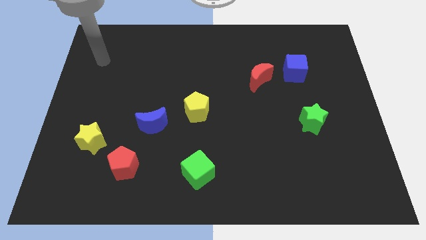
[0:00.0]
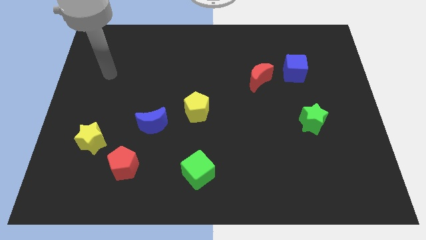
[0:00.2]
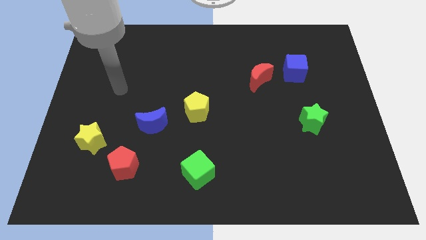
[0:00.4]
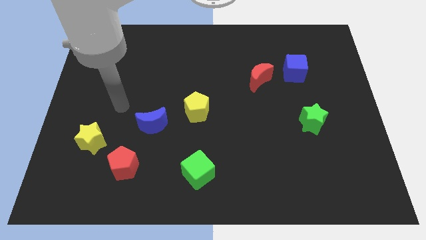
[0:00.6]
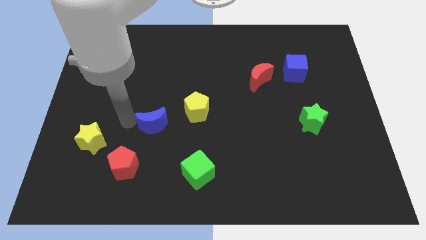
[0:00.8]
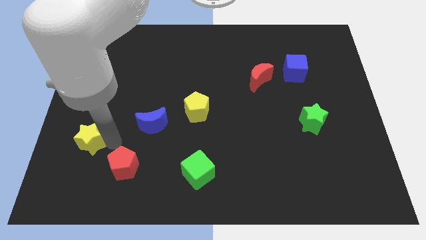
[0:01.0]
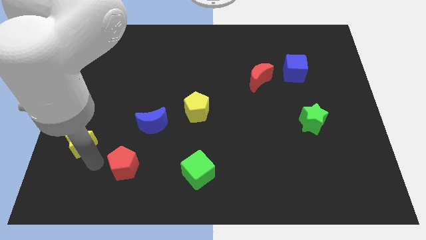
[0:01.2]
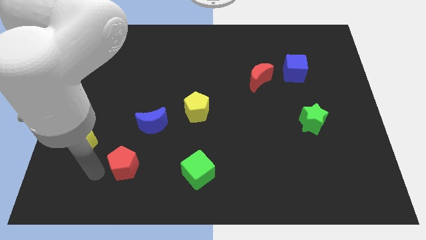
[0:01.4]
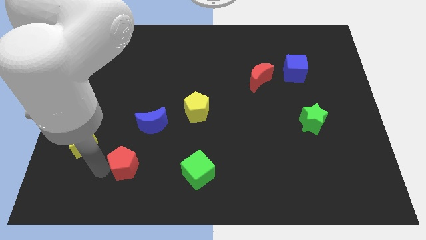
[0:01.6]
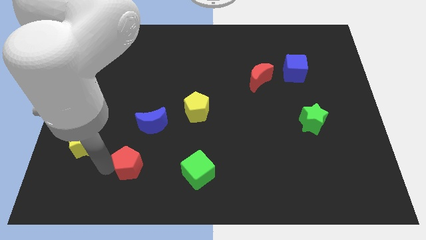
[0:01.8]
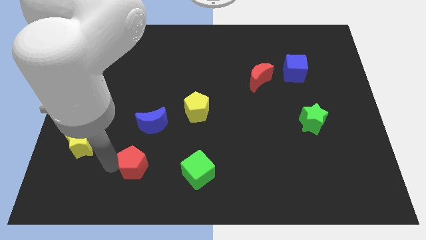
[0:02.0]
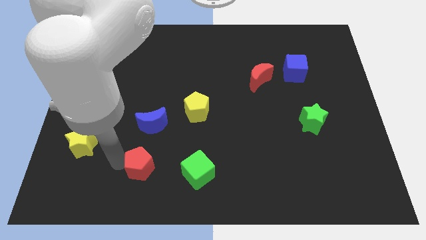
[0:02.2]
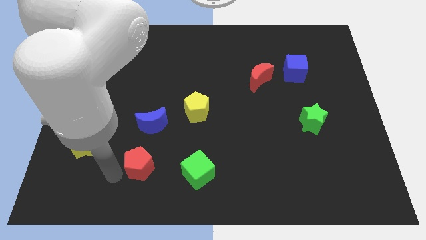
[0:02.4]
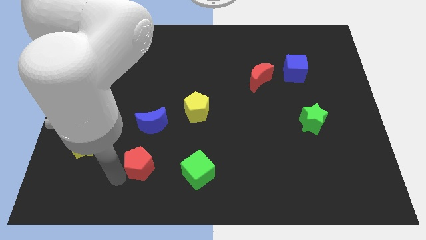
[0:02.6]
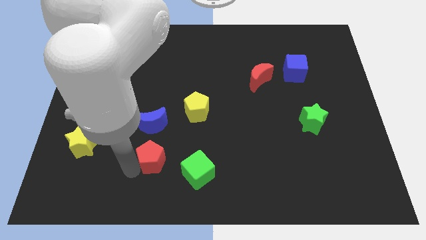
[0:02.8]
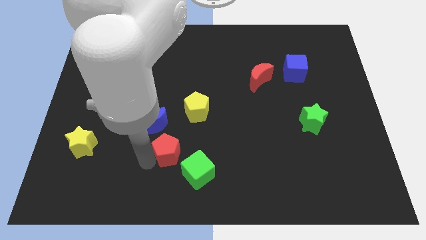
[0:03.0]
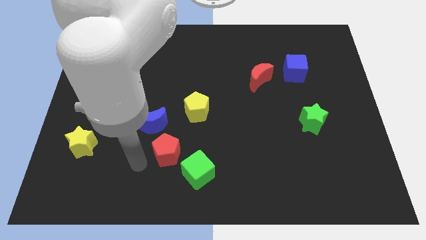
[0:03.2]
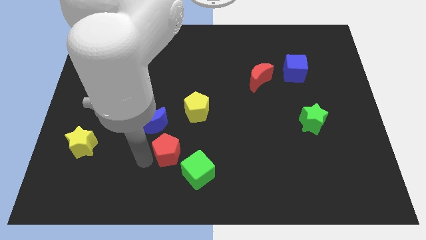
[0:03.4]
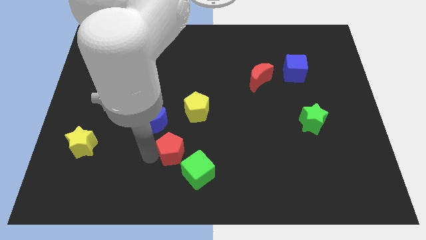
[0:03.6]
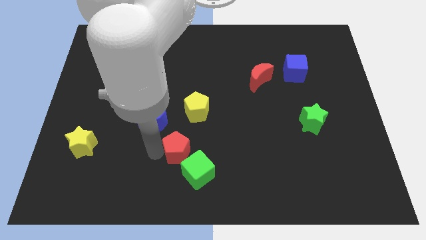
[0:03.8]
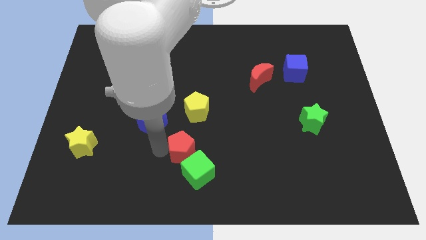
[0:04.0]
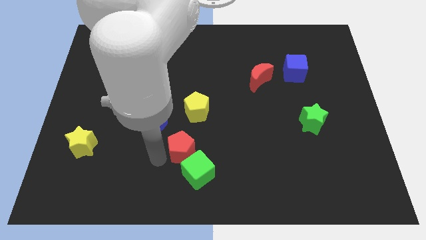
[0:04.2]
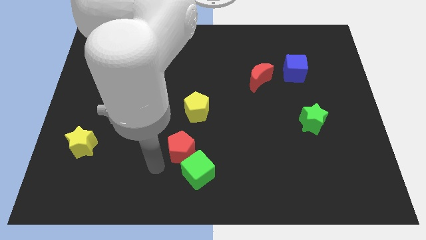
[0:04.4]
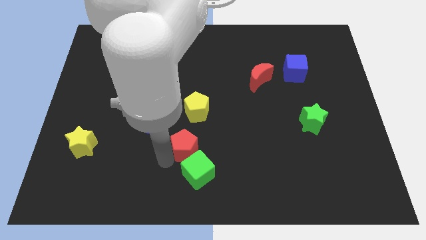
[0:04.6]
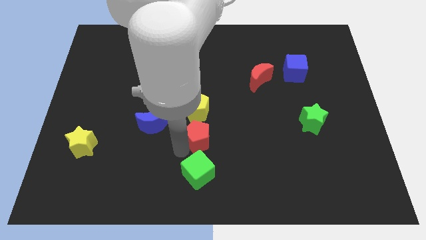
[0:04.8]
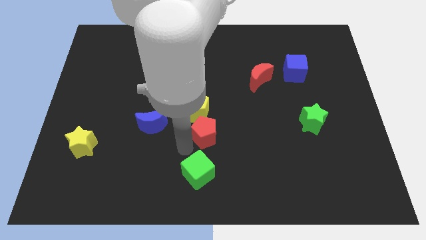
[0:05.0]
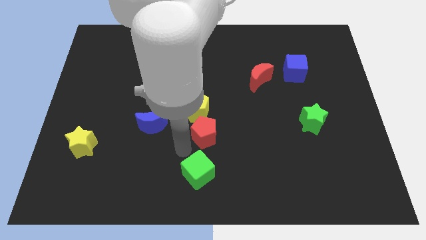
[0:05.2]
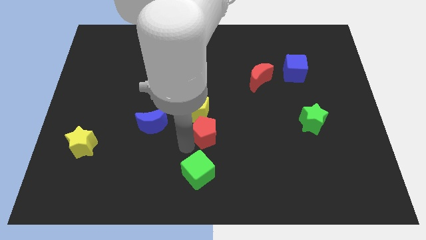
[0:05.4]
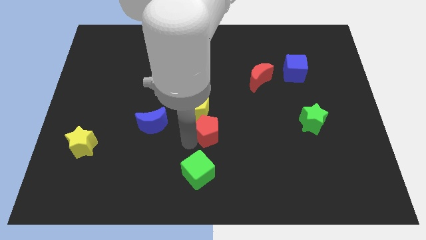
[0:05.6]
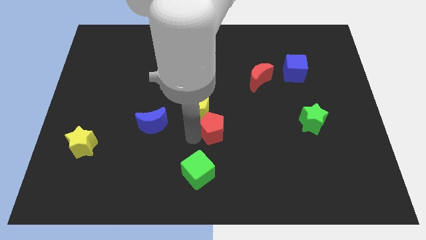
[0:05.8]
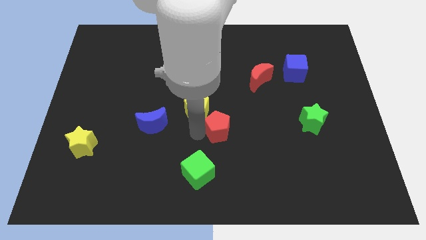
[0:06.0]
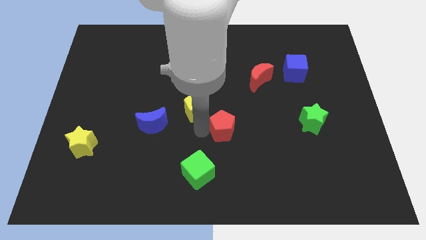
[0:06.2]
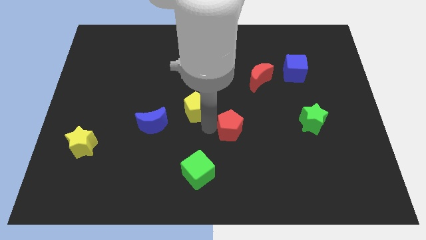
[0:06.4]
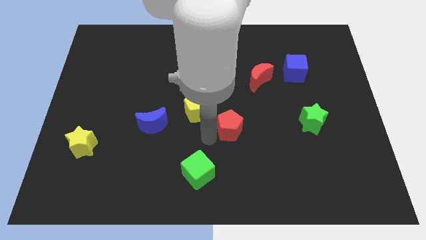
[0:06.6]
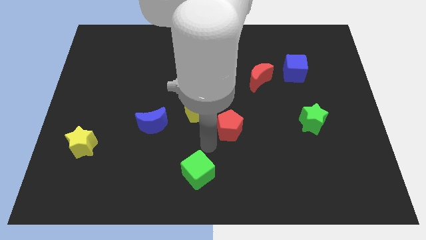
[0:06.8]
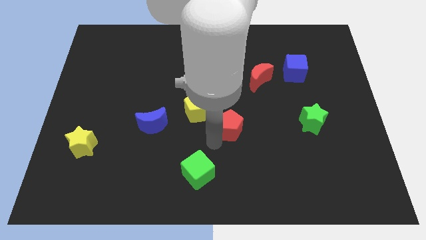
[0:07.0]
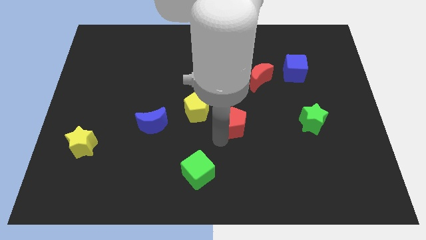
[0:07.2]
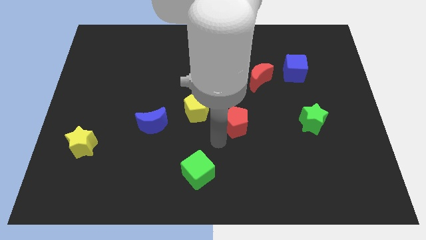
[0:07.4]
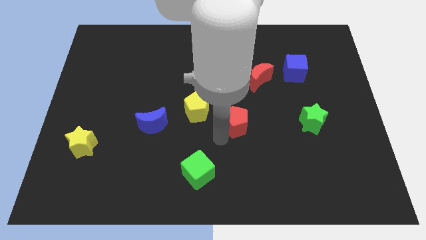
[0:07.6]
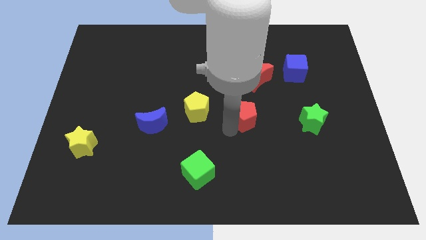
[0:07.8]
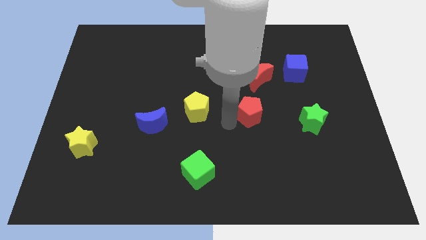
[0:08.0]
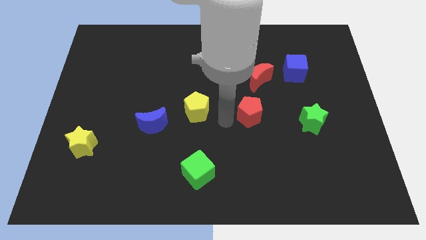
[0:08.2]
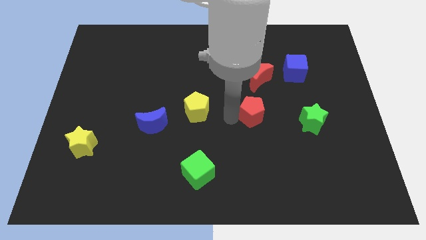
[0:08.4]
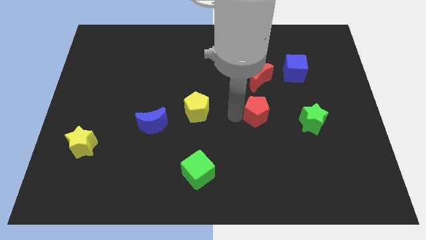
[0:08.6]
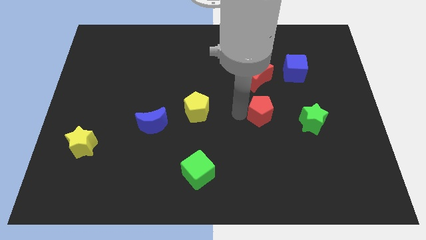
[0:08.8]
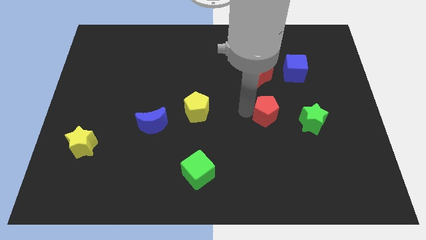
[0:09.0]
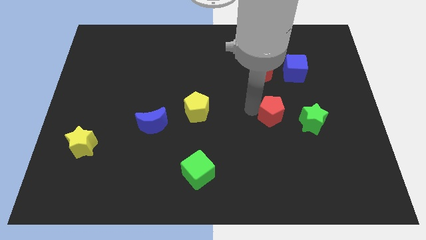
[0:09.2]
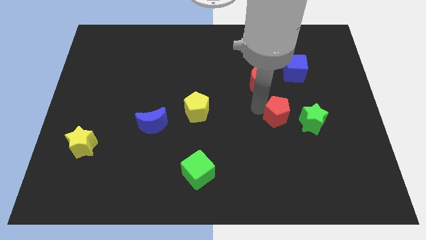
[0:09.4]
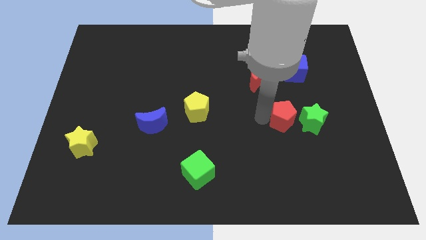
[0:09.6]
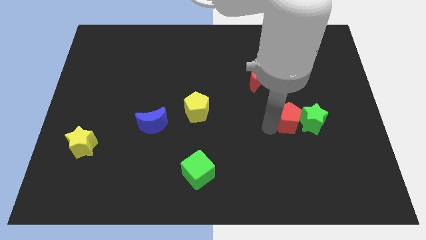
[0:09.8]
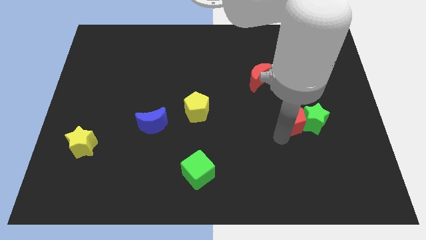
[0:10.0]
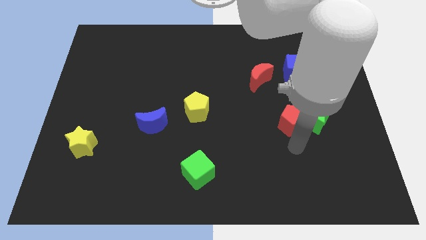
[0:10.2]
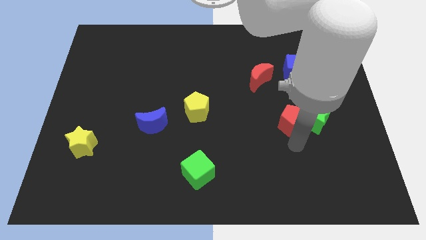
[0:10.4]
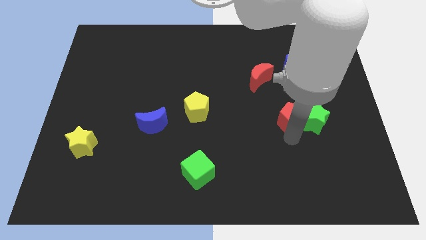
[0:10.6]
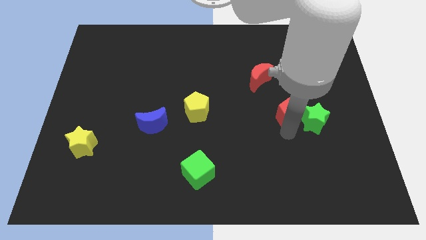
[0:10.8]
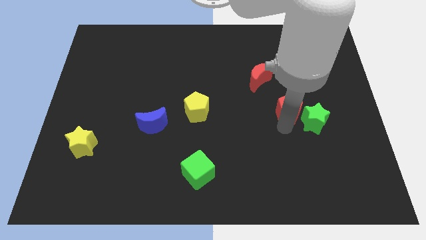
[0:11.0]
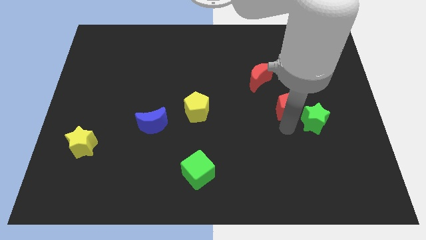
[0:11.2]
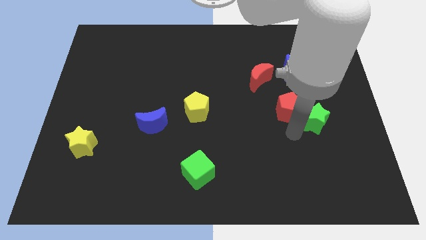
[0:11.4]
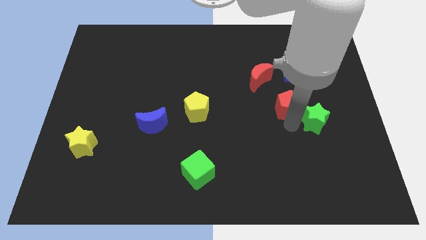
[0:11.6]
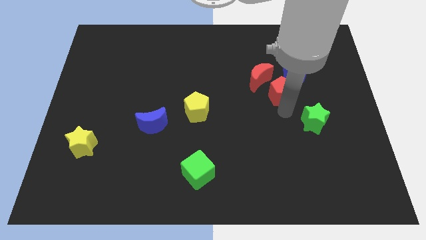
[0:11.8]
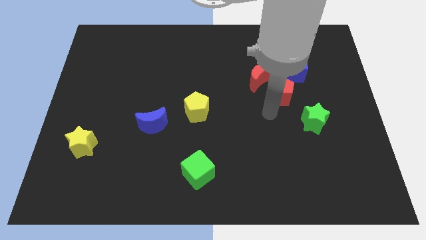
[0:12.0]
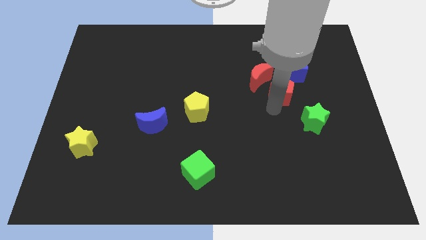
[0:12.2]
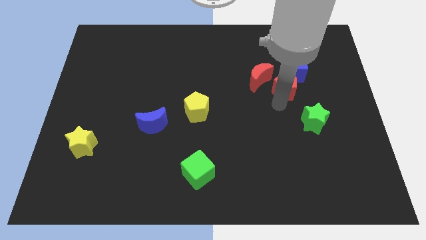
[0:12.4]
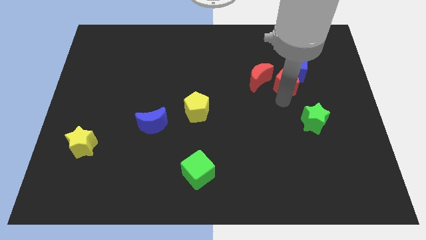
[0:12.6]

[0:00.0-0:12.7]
slide the red pentagon next to the blue cube

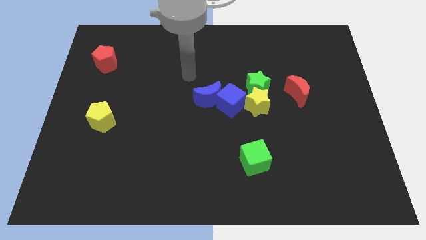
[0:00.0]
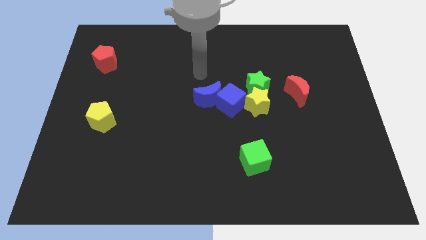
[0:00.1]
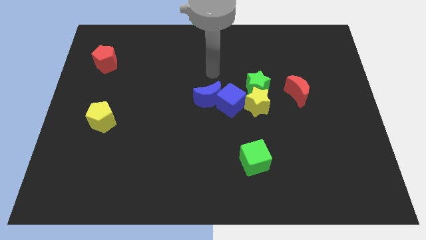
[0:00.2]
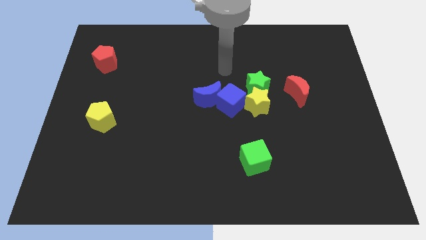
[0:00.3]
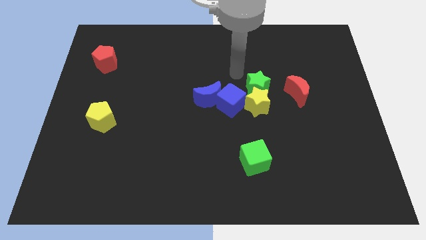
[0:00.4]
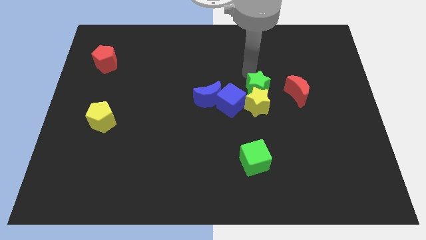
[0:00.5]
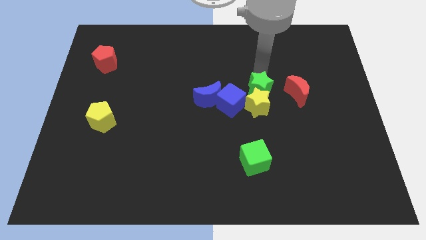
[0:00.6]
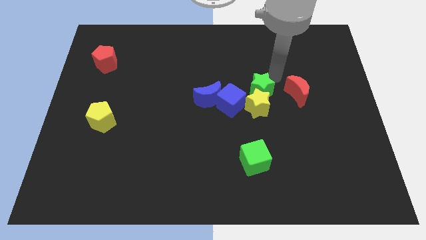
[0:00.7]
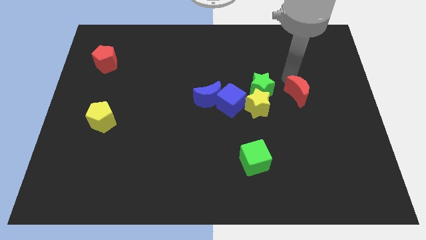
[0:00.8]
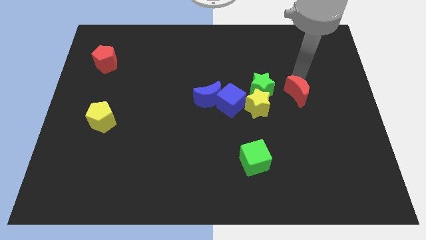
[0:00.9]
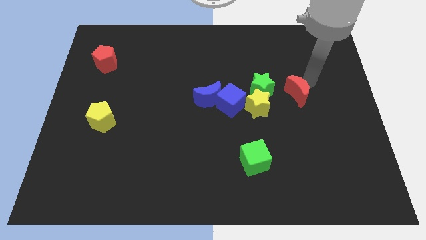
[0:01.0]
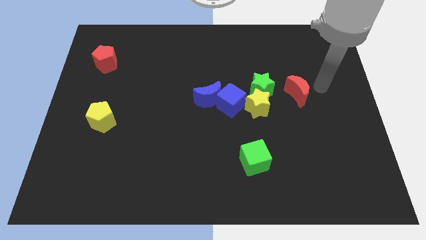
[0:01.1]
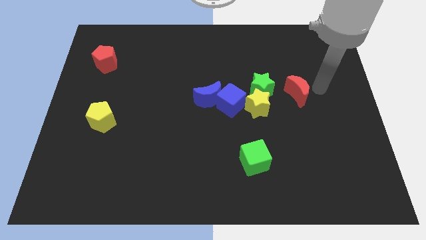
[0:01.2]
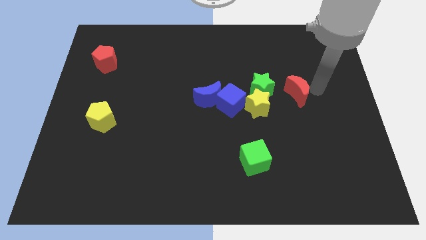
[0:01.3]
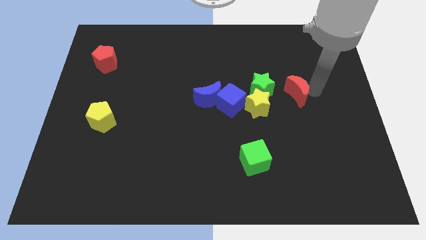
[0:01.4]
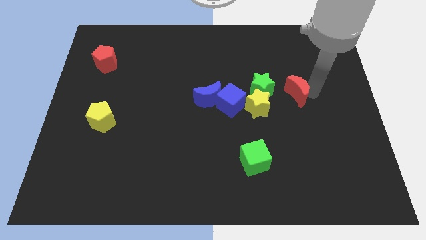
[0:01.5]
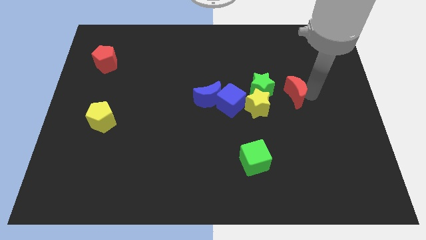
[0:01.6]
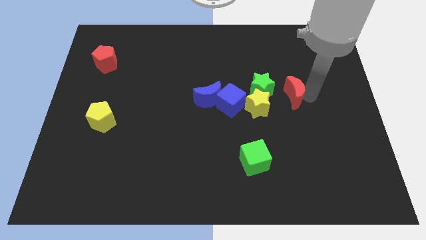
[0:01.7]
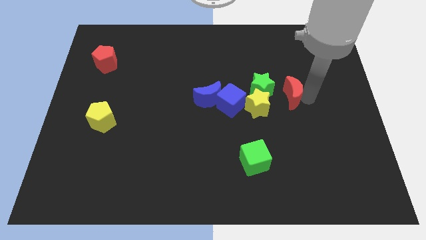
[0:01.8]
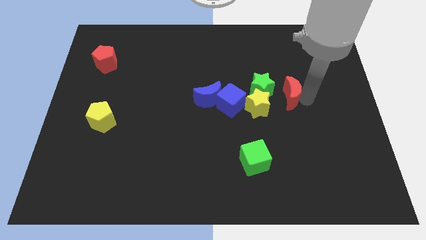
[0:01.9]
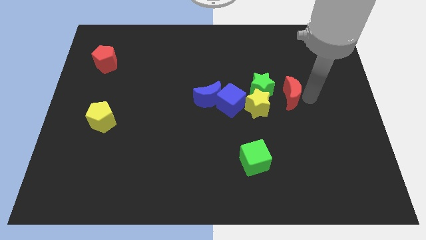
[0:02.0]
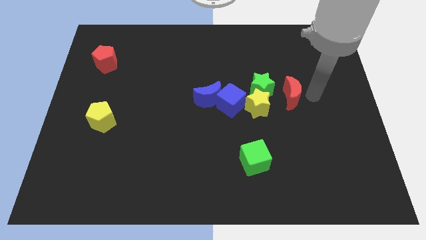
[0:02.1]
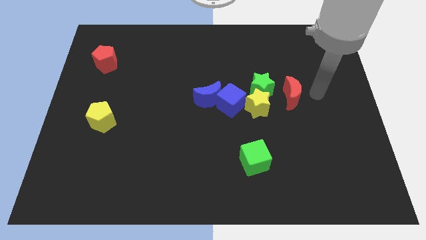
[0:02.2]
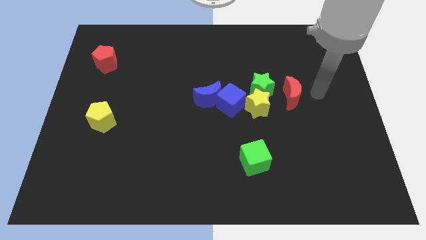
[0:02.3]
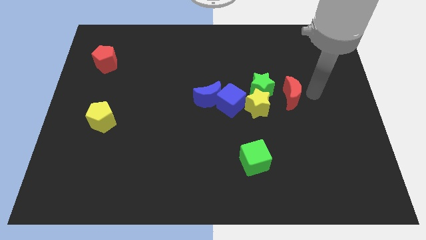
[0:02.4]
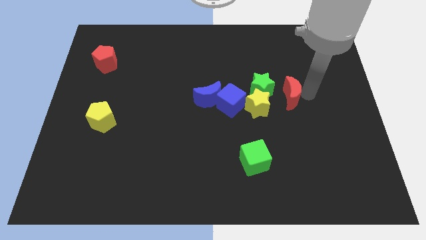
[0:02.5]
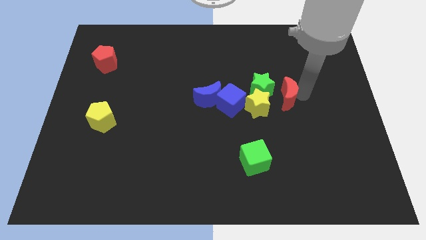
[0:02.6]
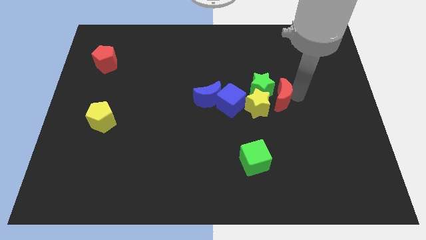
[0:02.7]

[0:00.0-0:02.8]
move the red moon to the green star
